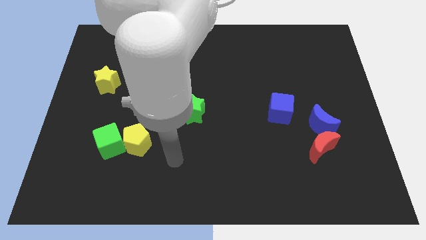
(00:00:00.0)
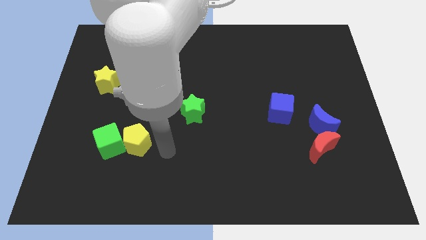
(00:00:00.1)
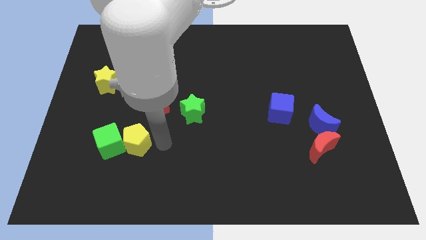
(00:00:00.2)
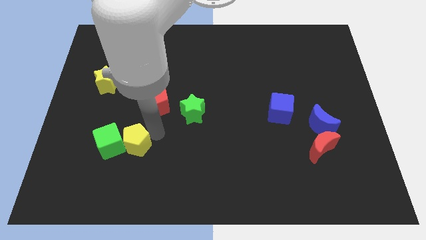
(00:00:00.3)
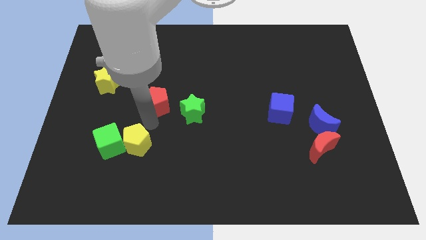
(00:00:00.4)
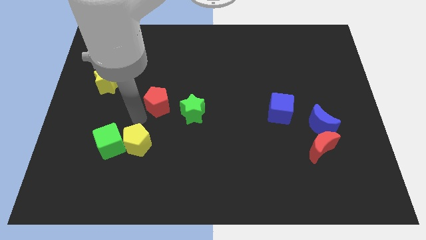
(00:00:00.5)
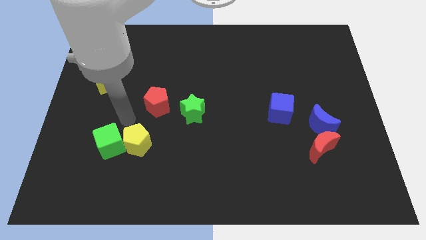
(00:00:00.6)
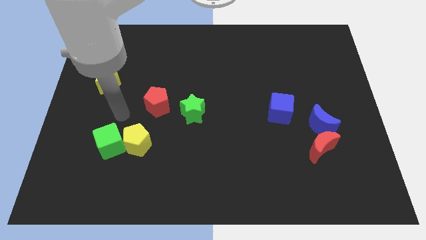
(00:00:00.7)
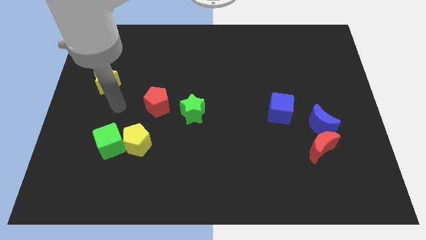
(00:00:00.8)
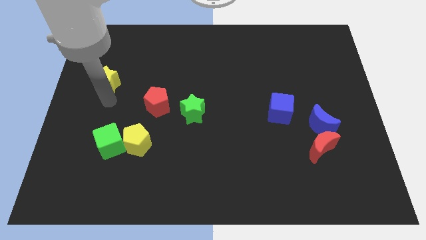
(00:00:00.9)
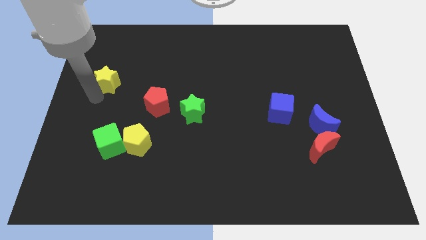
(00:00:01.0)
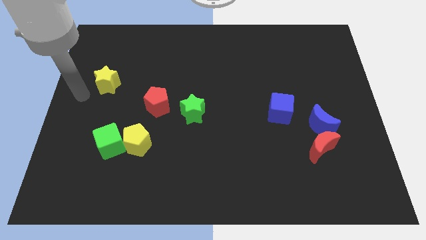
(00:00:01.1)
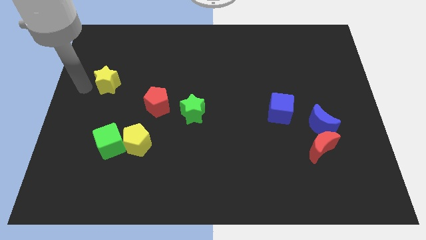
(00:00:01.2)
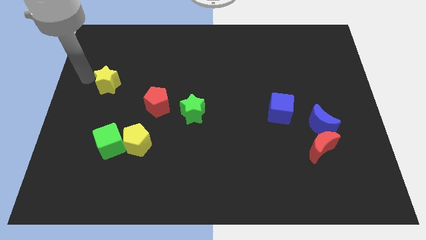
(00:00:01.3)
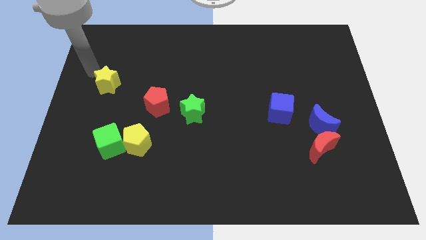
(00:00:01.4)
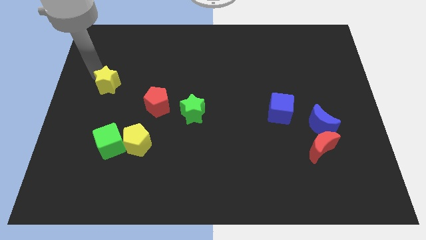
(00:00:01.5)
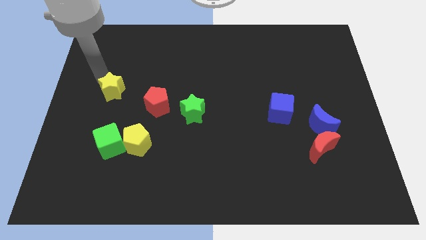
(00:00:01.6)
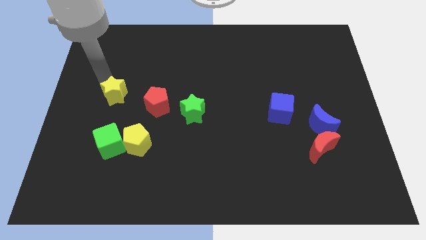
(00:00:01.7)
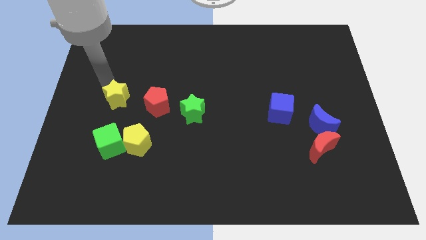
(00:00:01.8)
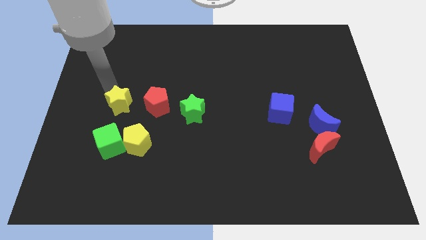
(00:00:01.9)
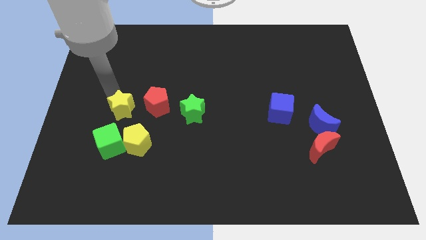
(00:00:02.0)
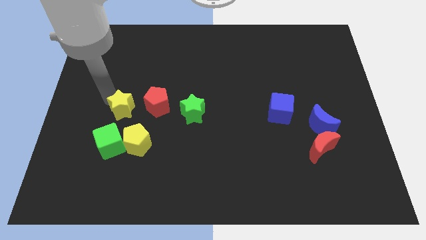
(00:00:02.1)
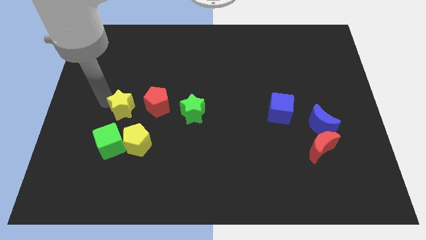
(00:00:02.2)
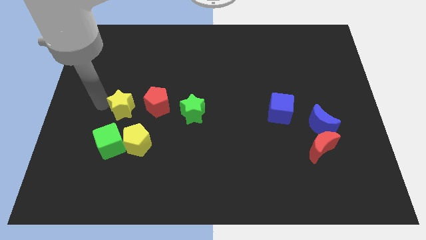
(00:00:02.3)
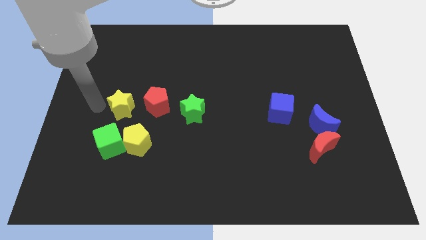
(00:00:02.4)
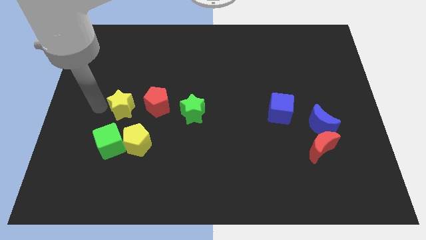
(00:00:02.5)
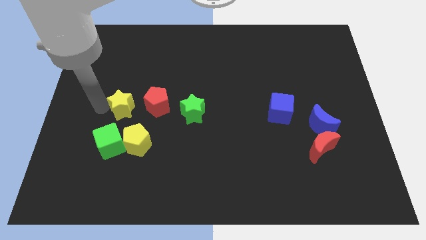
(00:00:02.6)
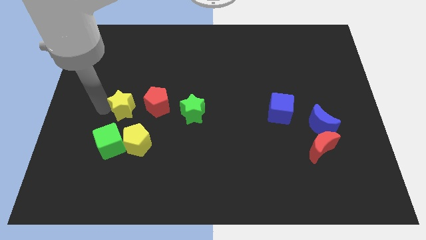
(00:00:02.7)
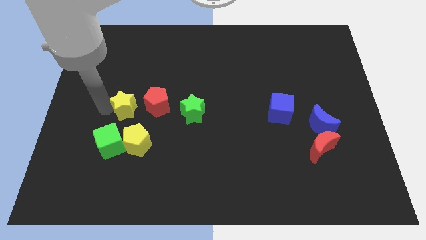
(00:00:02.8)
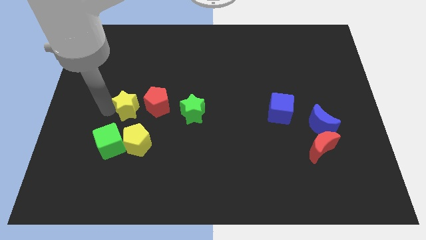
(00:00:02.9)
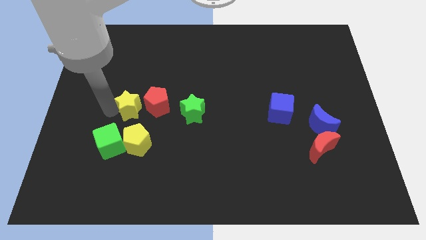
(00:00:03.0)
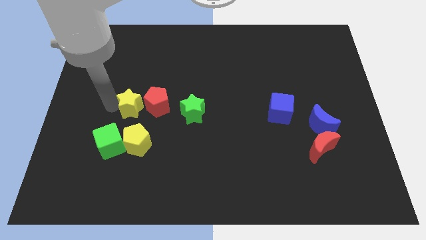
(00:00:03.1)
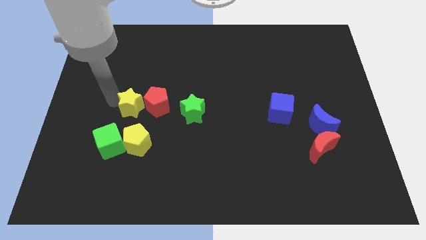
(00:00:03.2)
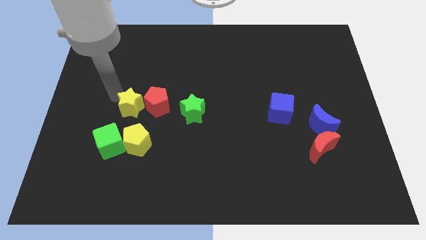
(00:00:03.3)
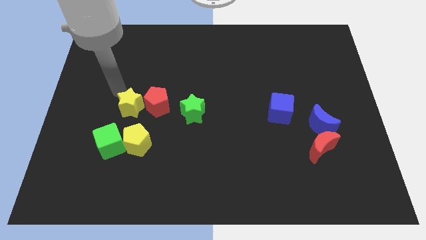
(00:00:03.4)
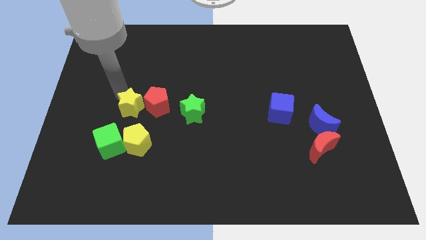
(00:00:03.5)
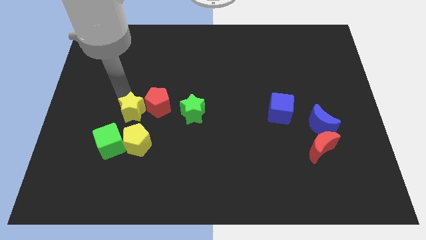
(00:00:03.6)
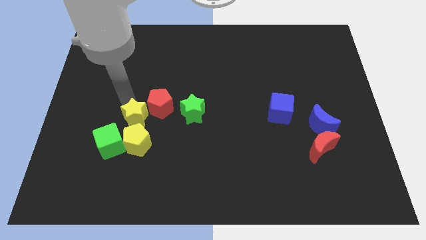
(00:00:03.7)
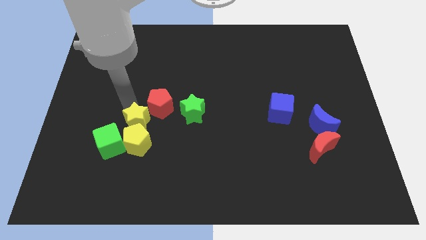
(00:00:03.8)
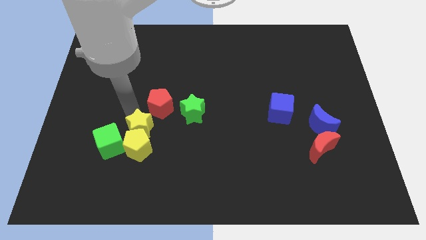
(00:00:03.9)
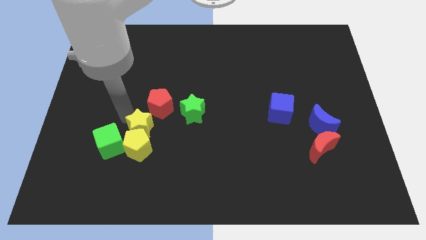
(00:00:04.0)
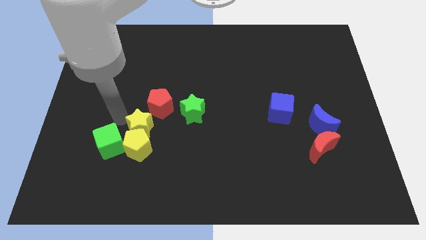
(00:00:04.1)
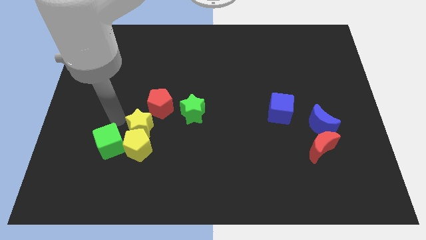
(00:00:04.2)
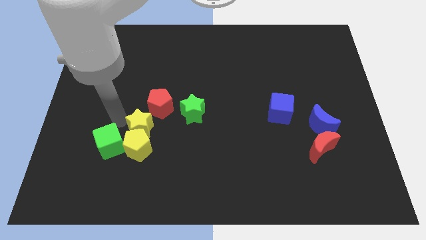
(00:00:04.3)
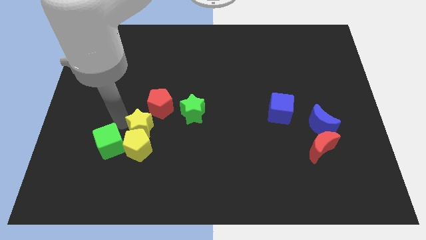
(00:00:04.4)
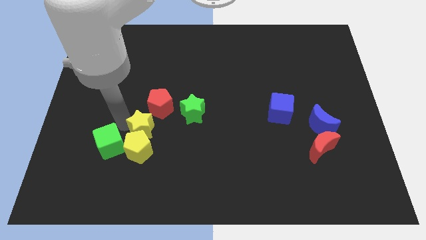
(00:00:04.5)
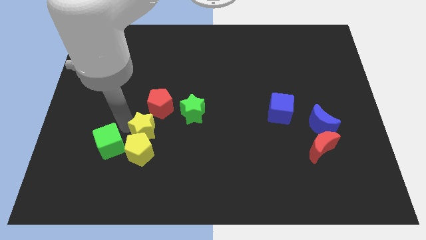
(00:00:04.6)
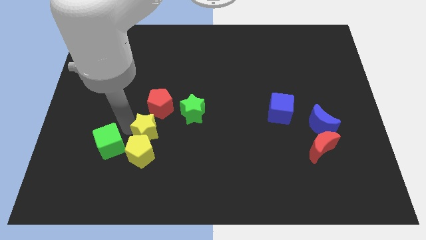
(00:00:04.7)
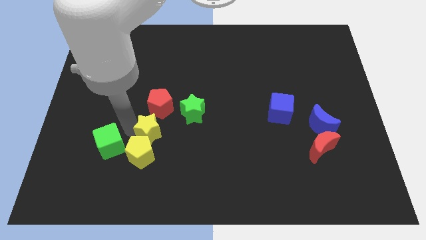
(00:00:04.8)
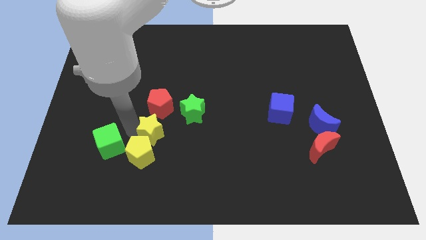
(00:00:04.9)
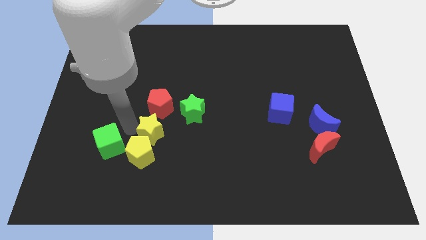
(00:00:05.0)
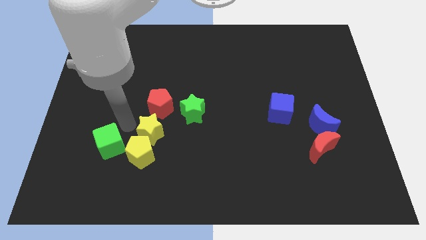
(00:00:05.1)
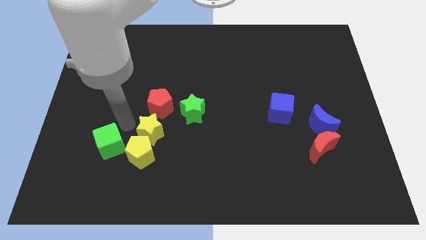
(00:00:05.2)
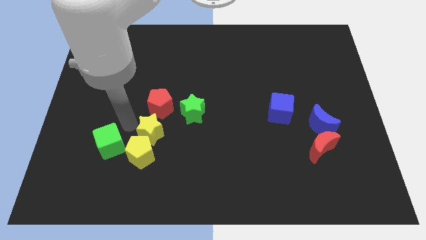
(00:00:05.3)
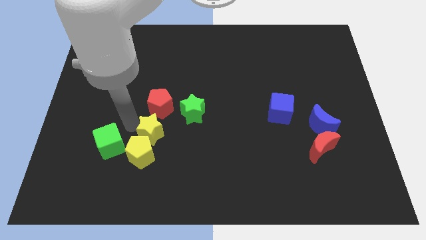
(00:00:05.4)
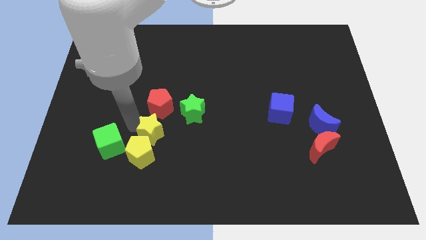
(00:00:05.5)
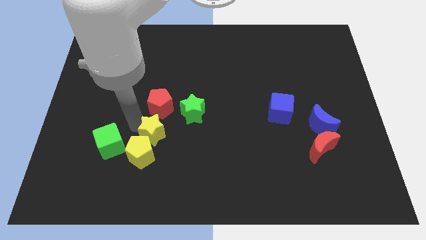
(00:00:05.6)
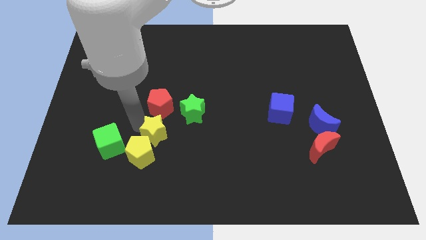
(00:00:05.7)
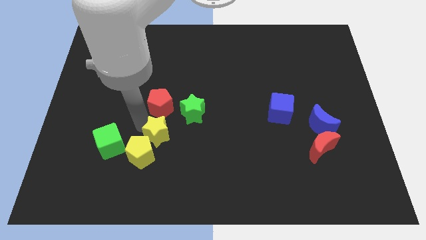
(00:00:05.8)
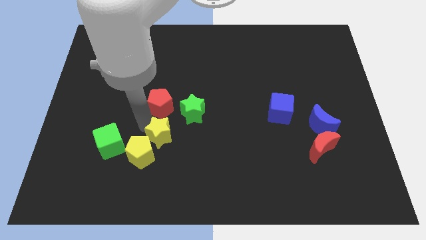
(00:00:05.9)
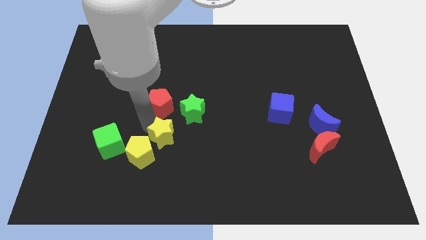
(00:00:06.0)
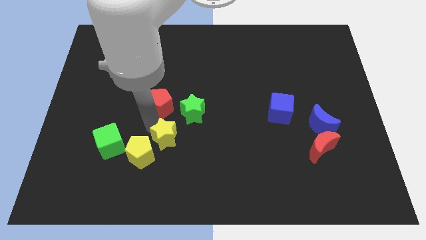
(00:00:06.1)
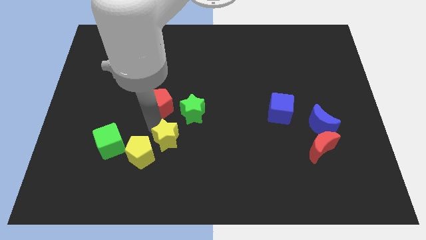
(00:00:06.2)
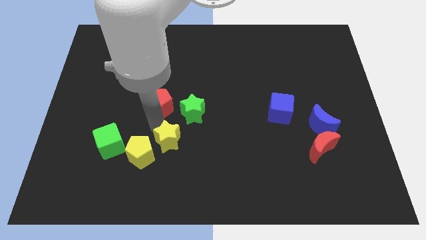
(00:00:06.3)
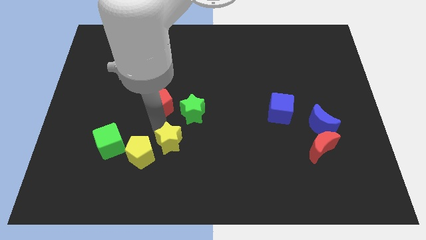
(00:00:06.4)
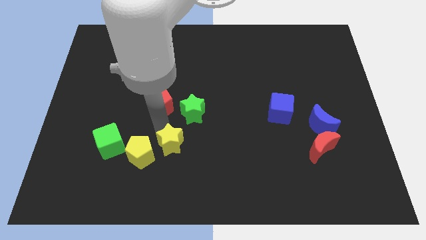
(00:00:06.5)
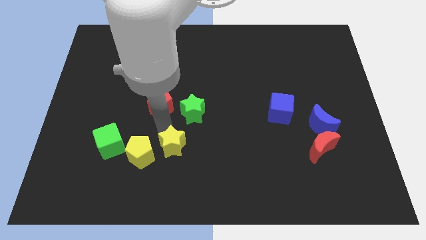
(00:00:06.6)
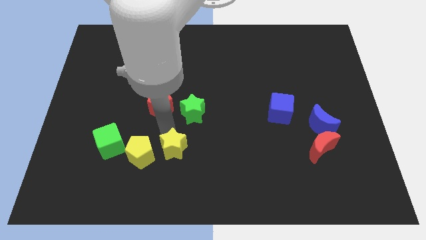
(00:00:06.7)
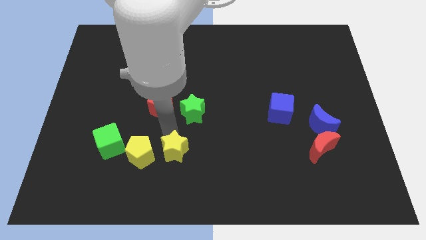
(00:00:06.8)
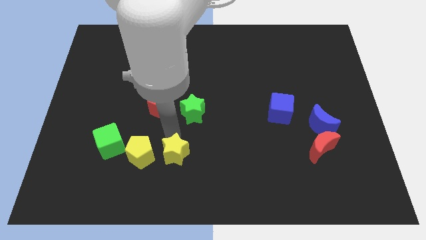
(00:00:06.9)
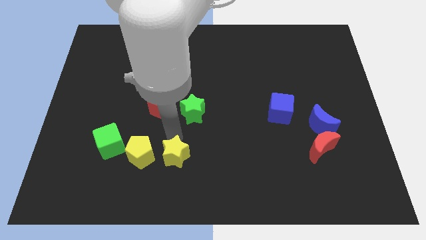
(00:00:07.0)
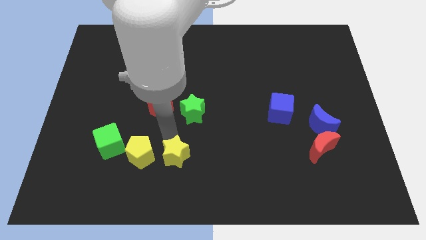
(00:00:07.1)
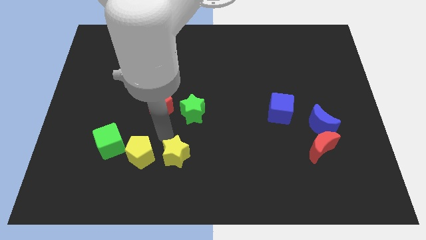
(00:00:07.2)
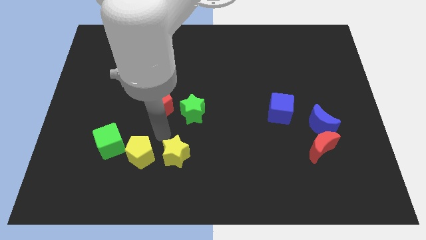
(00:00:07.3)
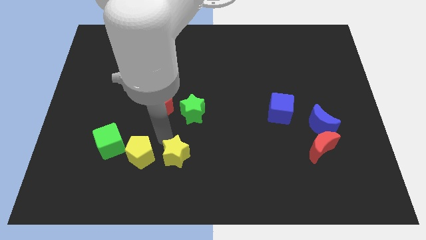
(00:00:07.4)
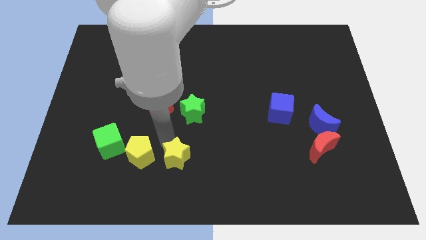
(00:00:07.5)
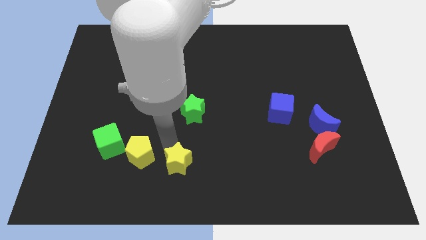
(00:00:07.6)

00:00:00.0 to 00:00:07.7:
push the yellow star to the bottom side
